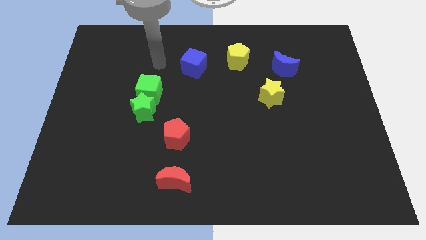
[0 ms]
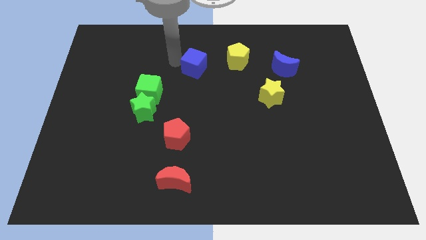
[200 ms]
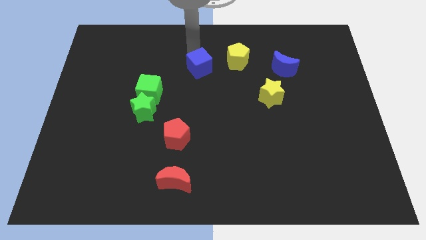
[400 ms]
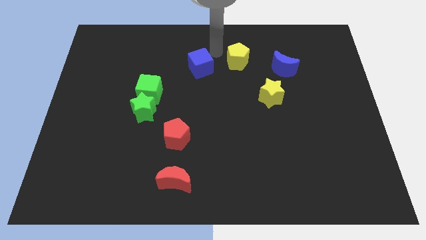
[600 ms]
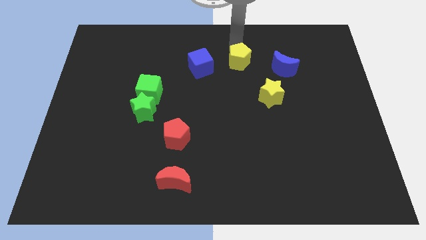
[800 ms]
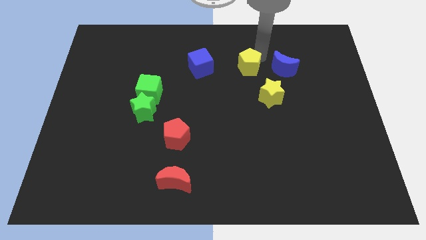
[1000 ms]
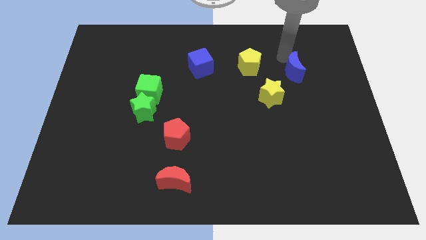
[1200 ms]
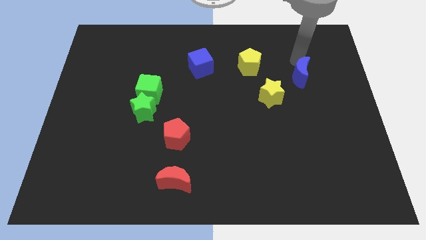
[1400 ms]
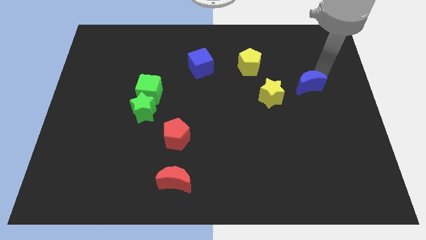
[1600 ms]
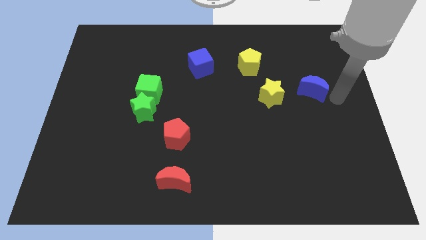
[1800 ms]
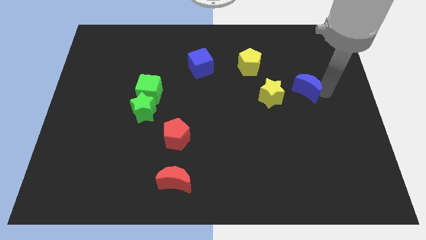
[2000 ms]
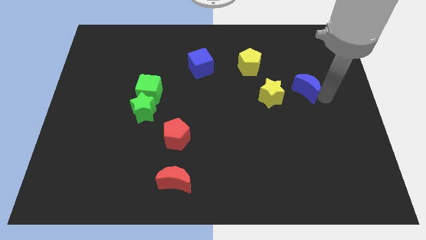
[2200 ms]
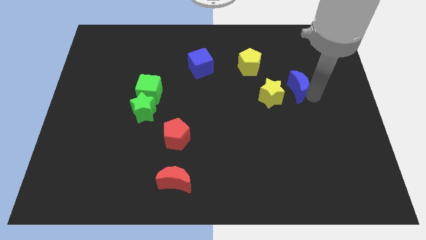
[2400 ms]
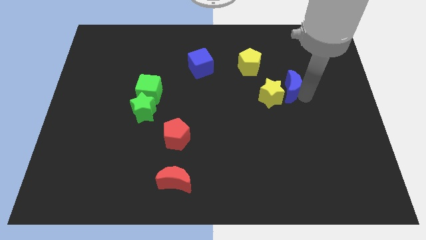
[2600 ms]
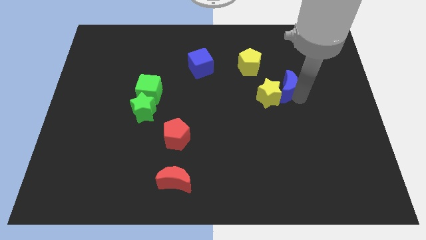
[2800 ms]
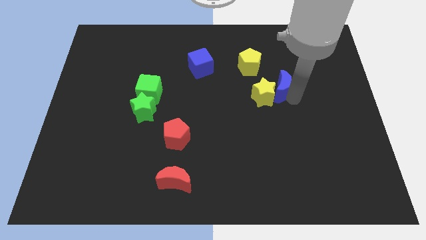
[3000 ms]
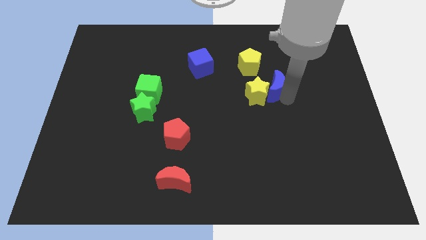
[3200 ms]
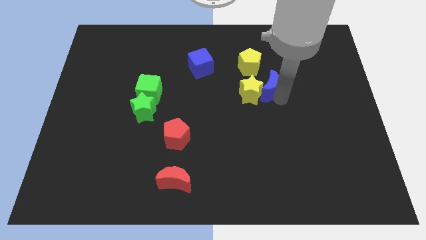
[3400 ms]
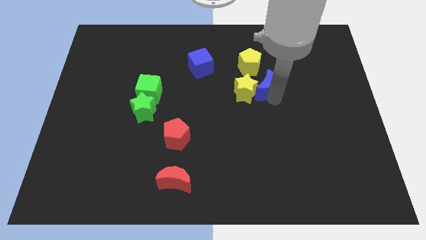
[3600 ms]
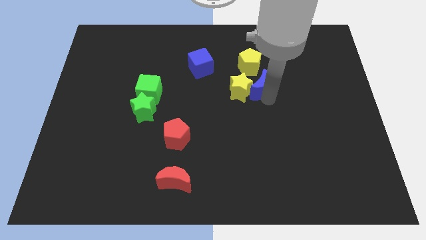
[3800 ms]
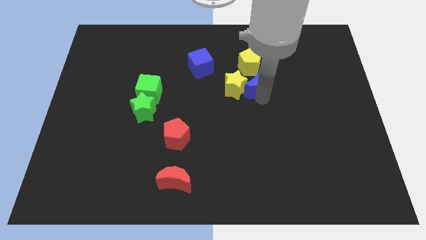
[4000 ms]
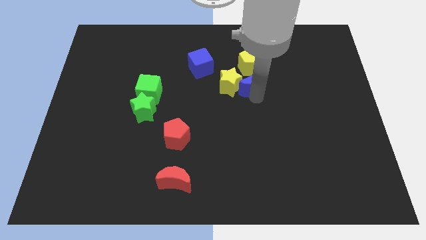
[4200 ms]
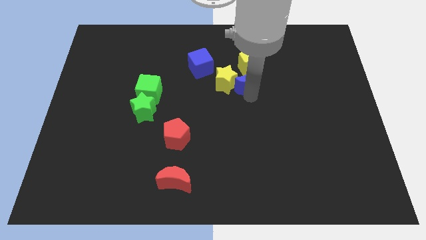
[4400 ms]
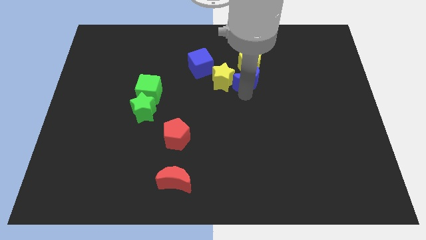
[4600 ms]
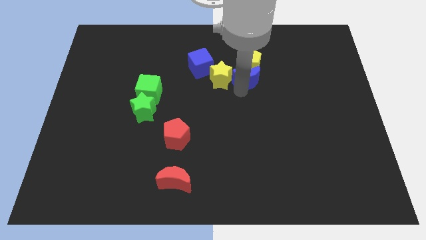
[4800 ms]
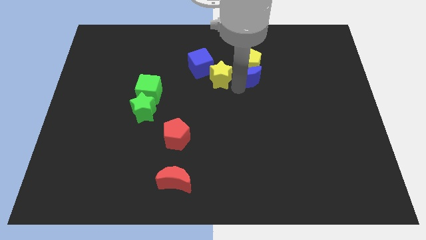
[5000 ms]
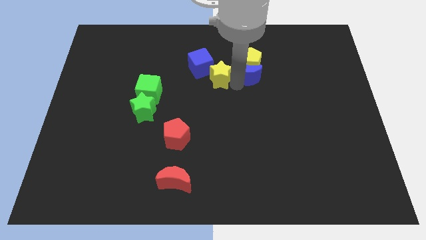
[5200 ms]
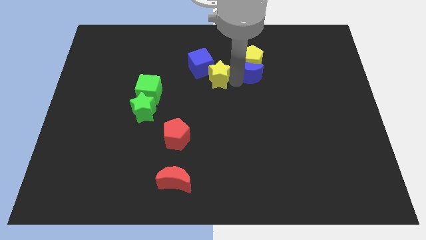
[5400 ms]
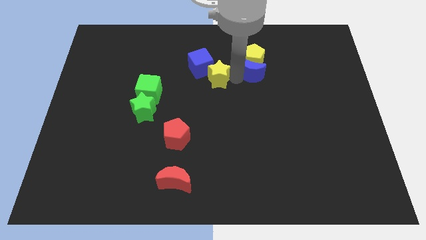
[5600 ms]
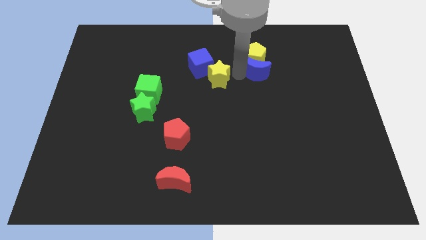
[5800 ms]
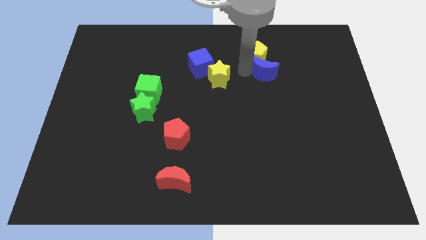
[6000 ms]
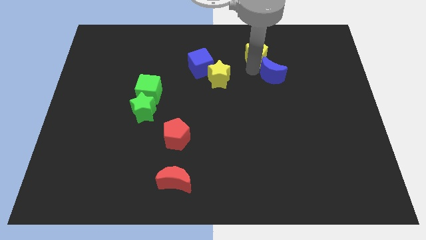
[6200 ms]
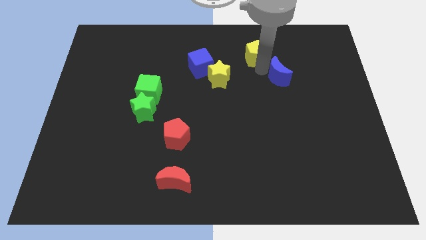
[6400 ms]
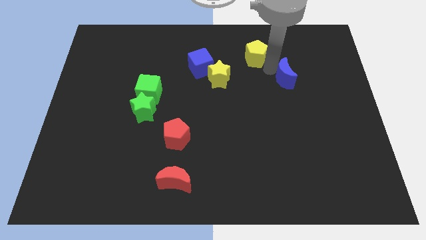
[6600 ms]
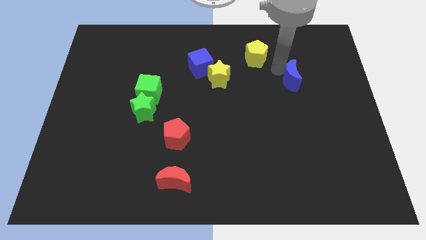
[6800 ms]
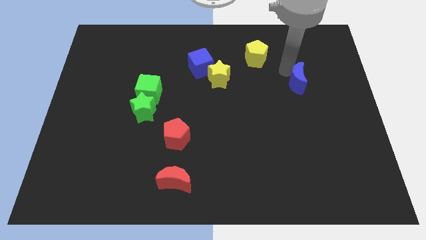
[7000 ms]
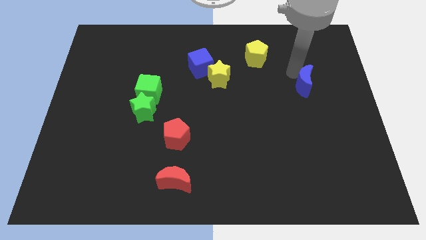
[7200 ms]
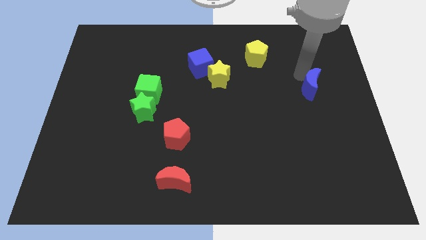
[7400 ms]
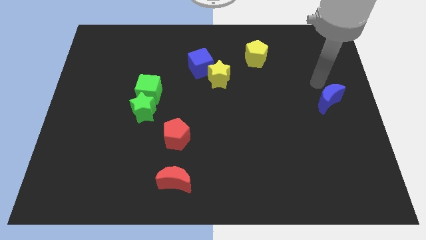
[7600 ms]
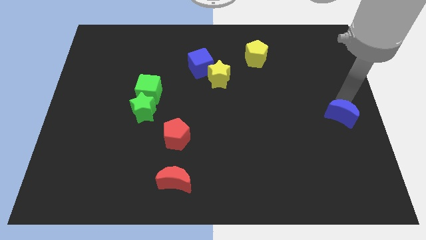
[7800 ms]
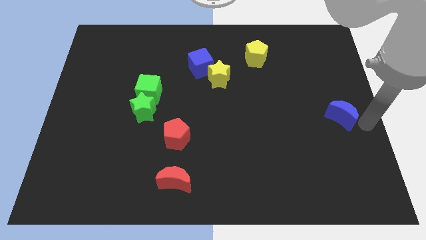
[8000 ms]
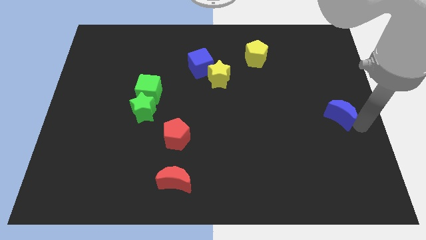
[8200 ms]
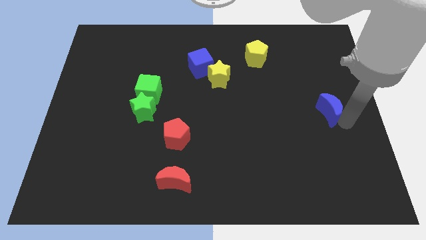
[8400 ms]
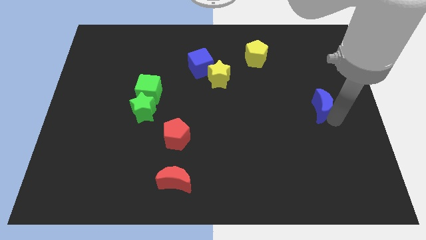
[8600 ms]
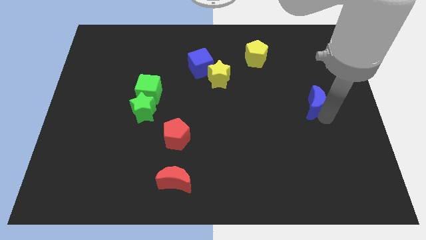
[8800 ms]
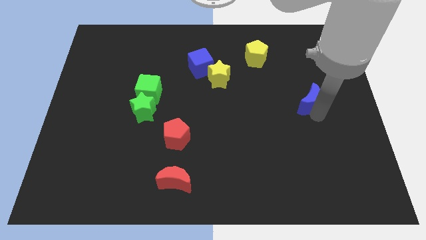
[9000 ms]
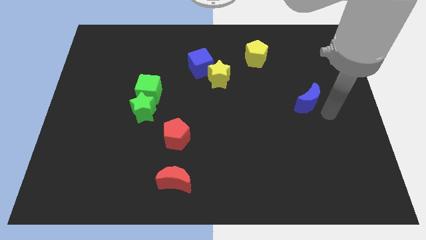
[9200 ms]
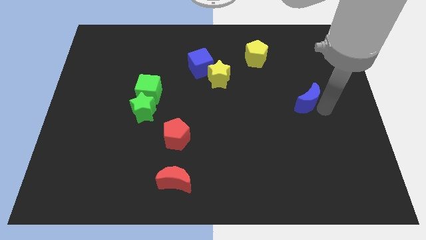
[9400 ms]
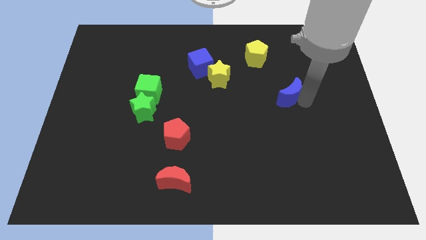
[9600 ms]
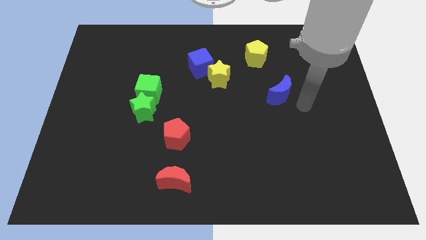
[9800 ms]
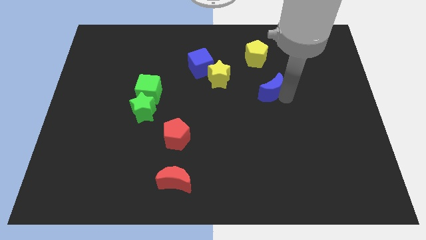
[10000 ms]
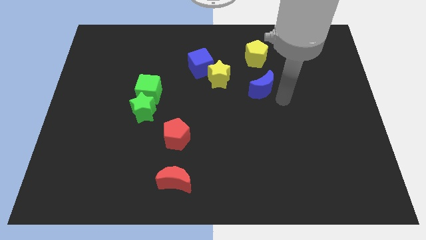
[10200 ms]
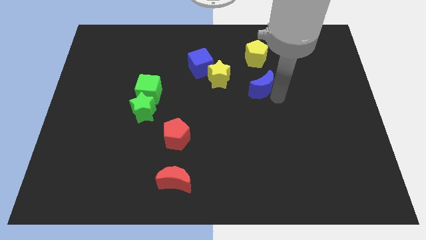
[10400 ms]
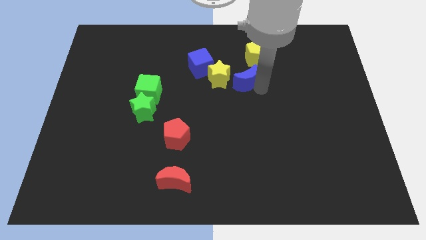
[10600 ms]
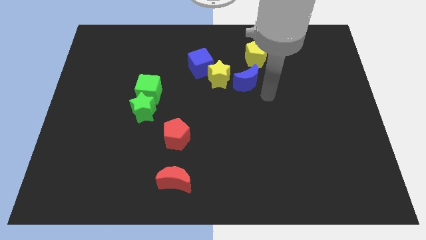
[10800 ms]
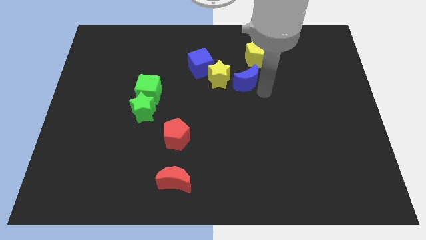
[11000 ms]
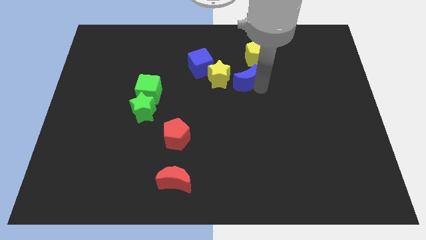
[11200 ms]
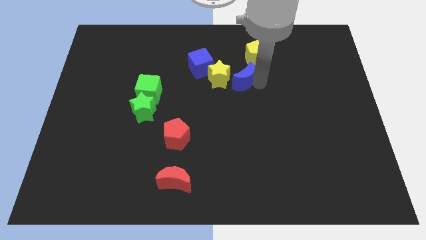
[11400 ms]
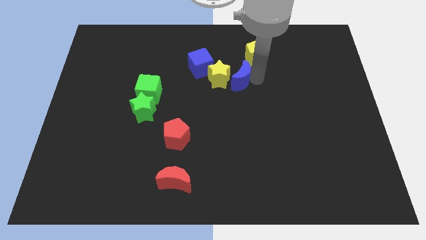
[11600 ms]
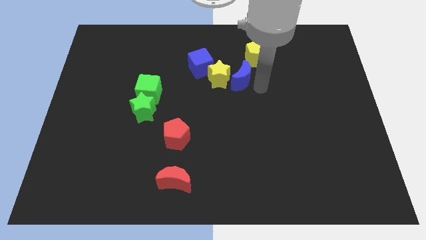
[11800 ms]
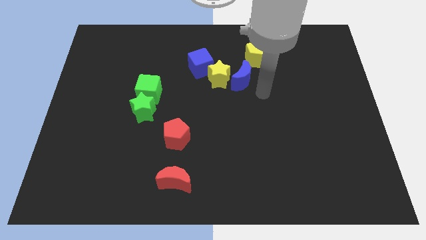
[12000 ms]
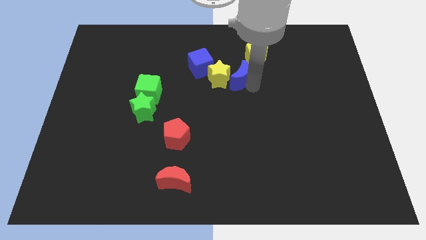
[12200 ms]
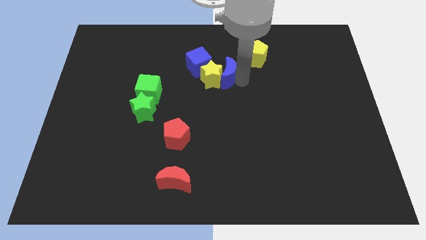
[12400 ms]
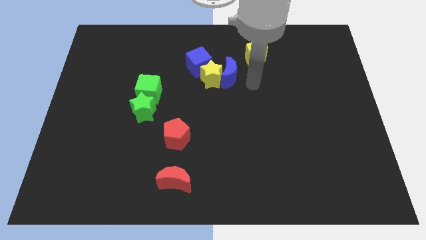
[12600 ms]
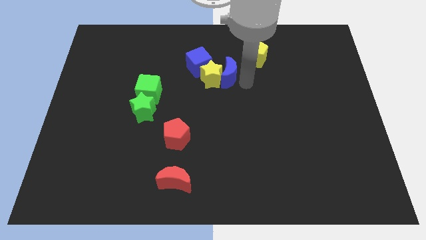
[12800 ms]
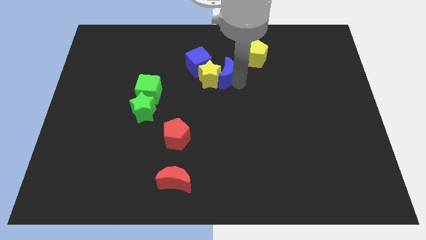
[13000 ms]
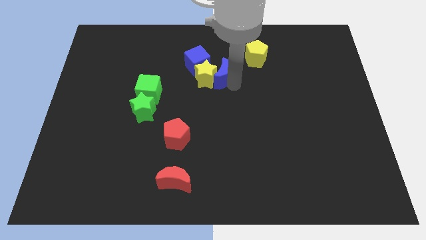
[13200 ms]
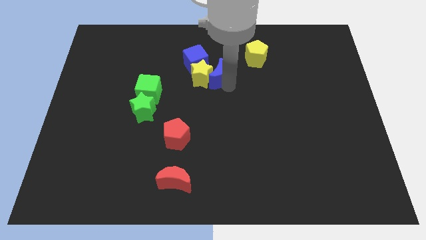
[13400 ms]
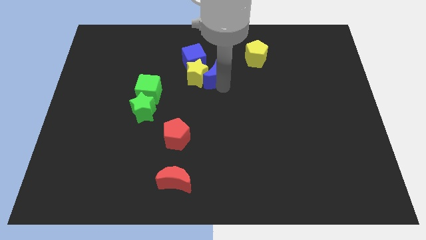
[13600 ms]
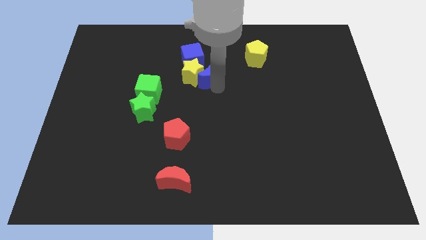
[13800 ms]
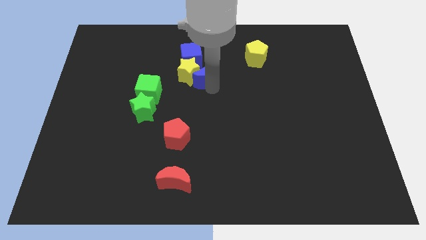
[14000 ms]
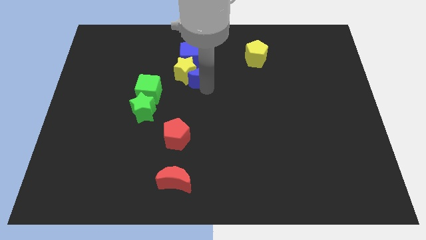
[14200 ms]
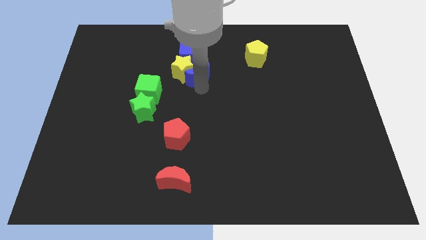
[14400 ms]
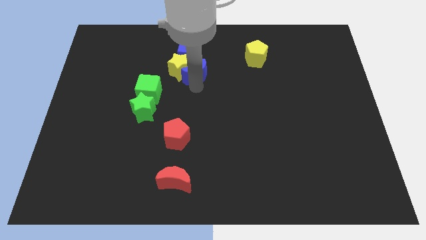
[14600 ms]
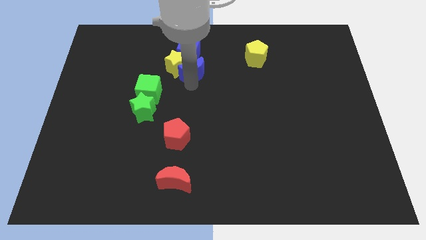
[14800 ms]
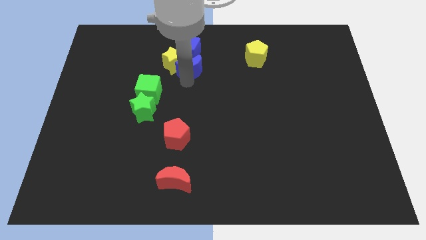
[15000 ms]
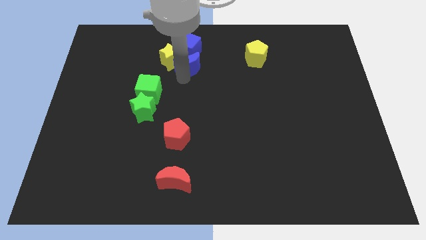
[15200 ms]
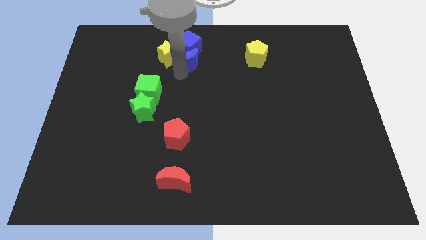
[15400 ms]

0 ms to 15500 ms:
put the blue moon next to the blue cube

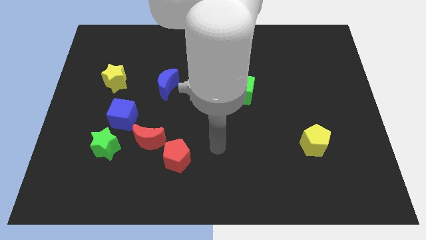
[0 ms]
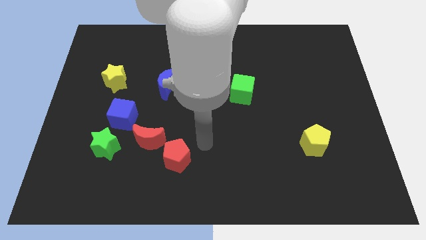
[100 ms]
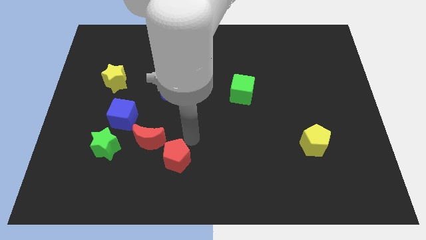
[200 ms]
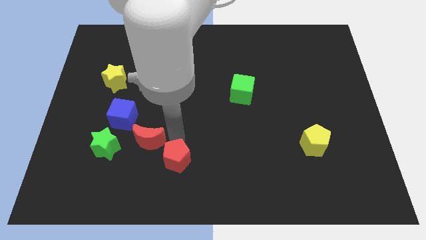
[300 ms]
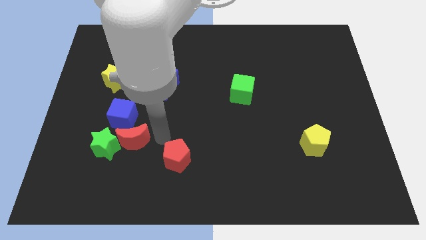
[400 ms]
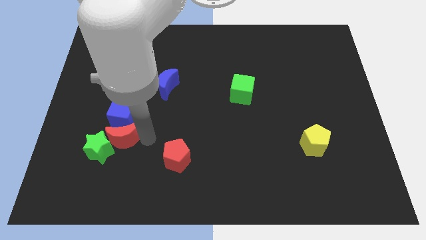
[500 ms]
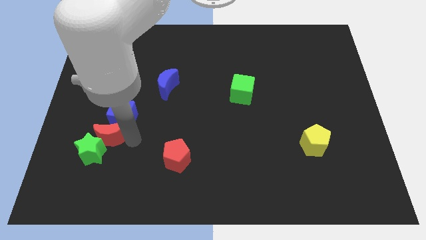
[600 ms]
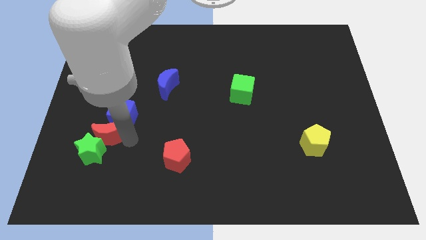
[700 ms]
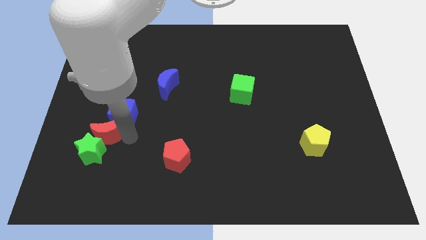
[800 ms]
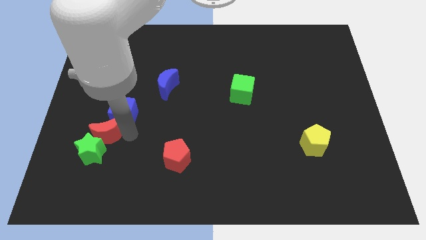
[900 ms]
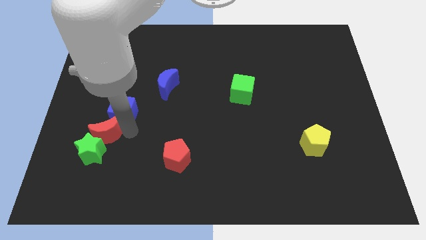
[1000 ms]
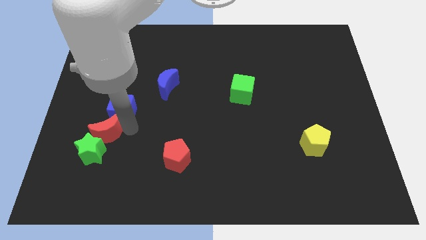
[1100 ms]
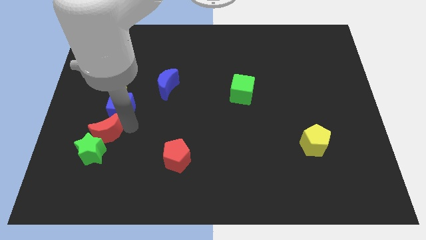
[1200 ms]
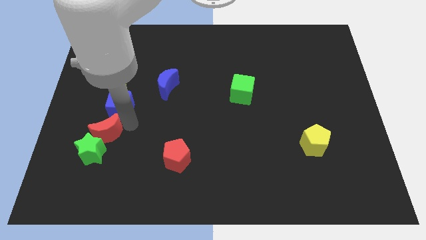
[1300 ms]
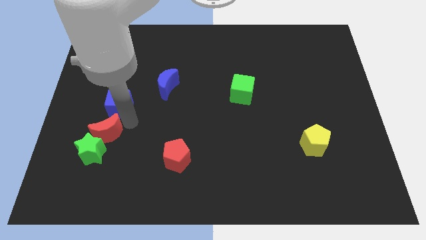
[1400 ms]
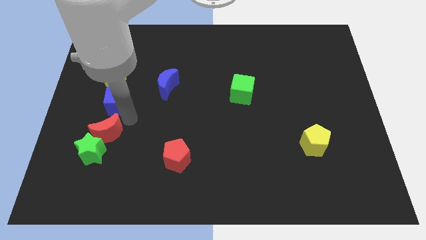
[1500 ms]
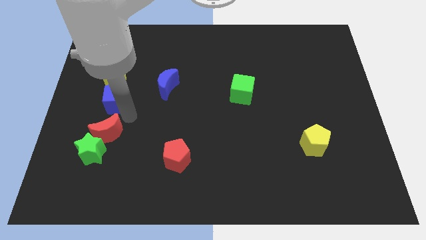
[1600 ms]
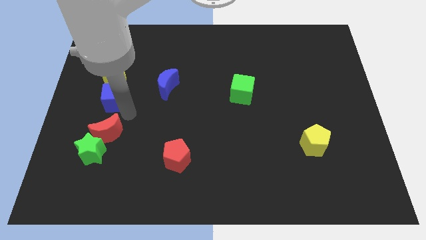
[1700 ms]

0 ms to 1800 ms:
slide the blue cube close to the yellow star
